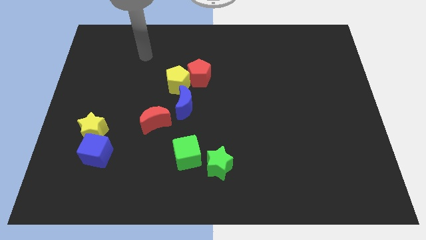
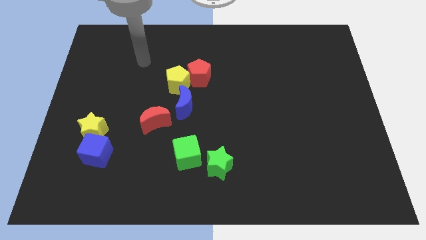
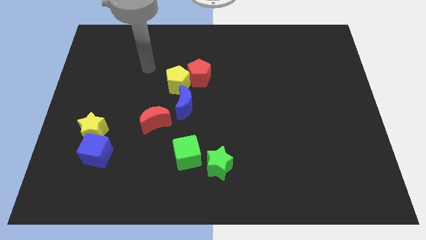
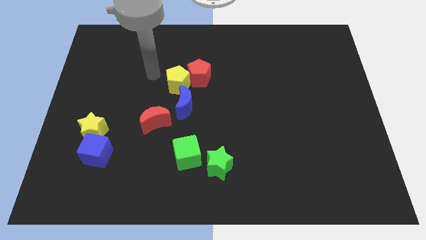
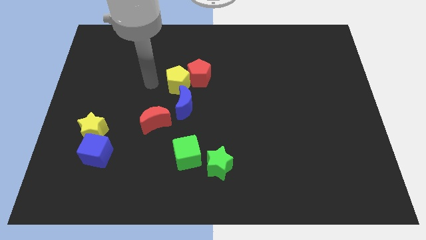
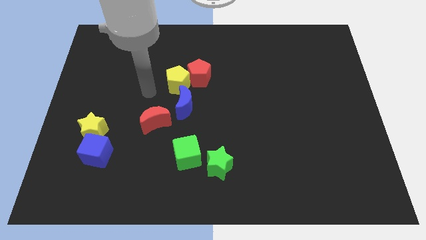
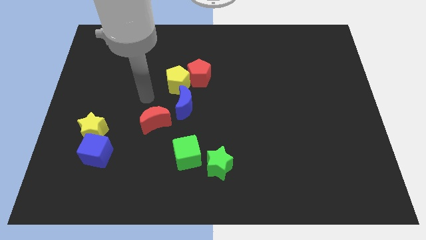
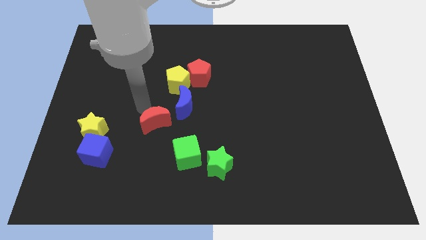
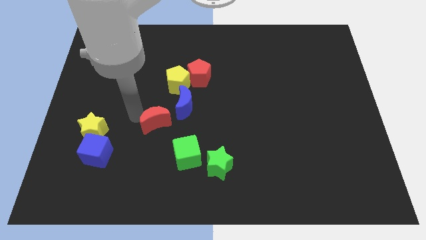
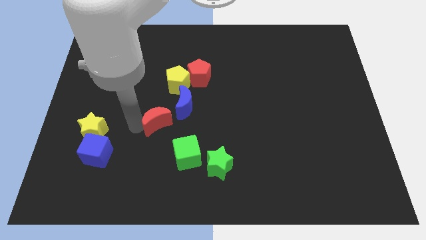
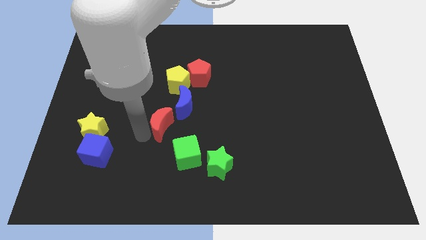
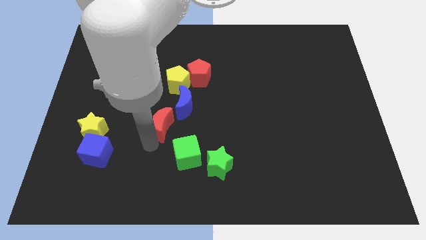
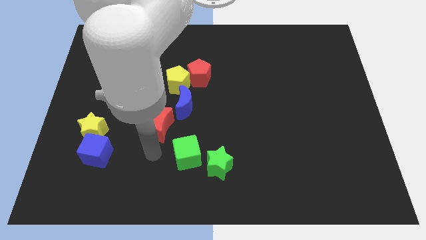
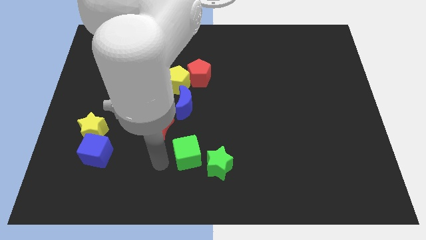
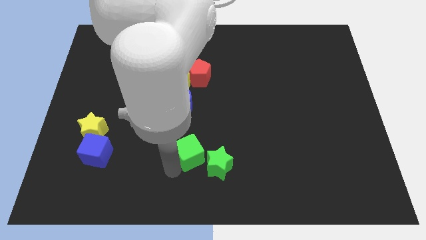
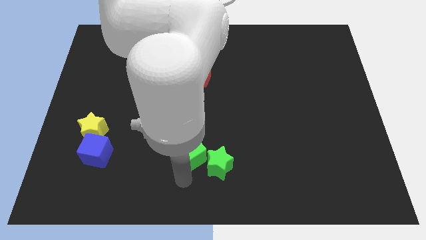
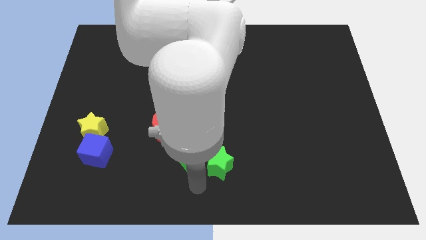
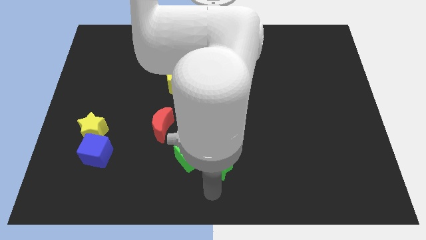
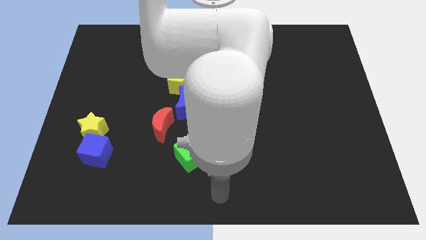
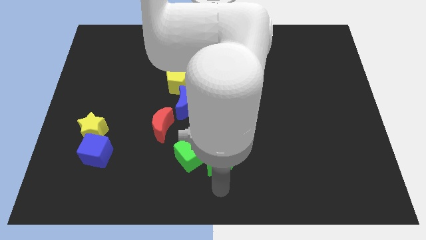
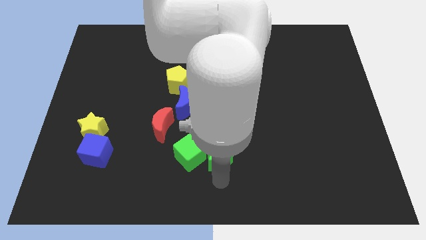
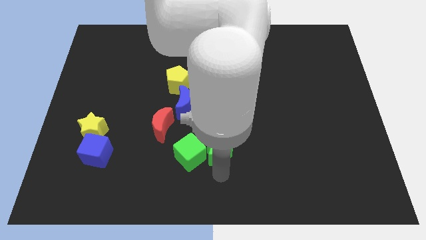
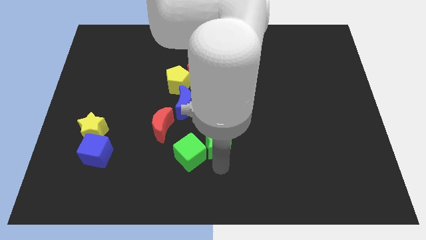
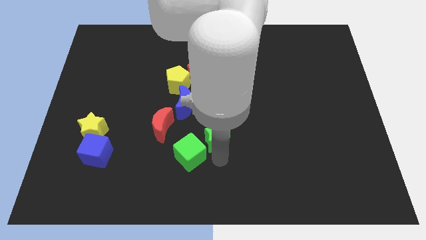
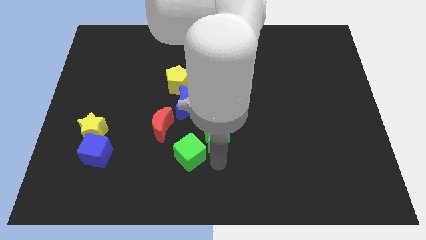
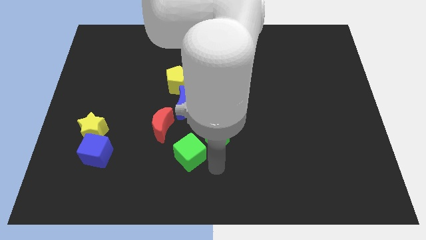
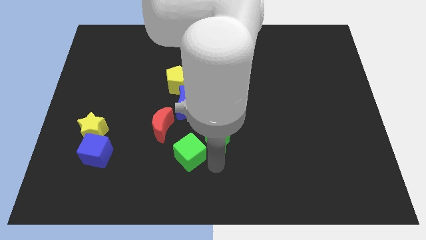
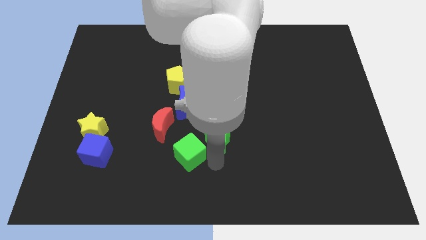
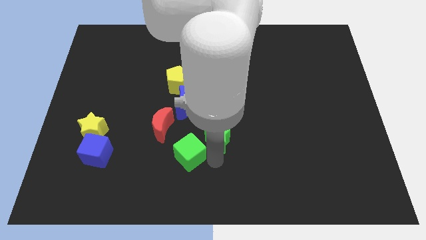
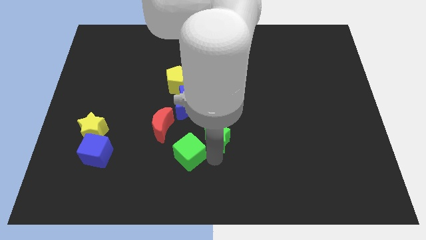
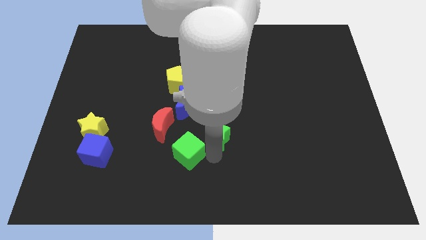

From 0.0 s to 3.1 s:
slightly push the green star up

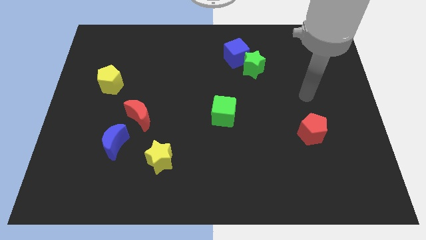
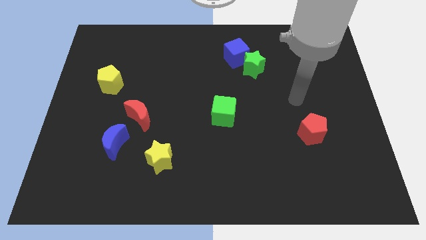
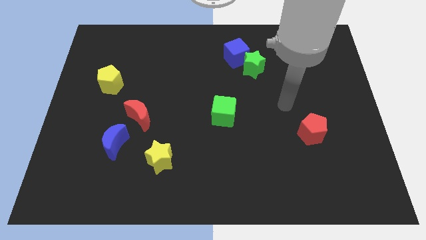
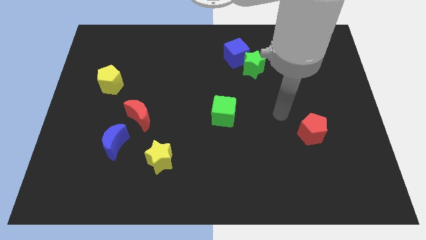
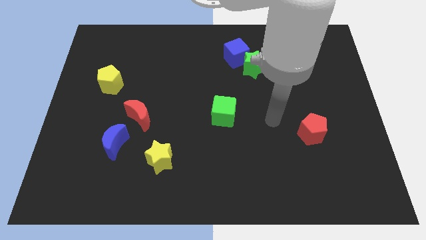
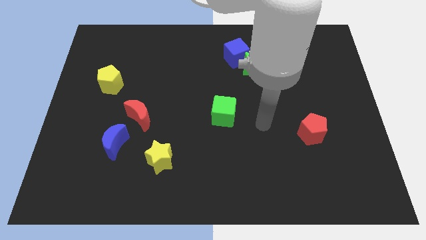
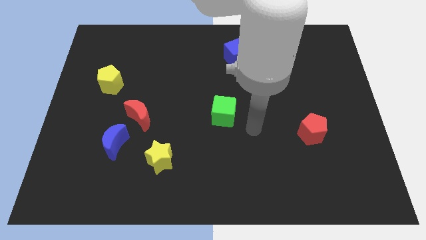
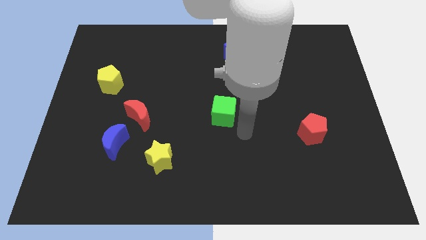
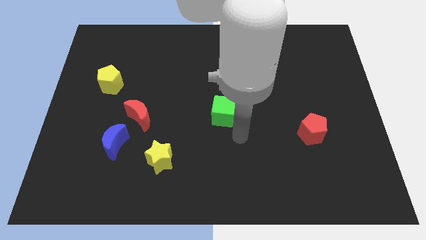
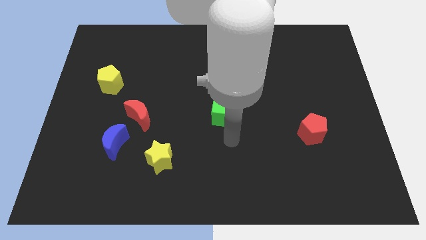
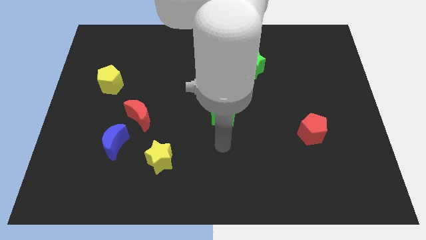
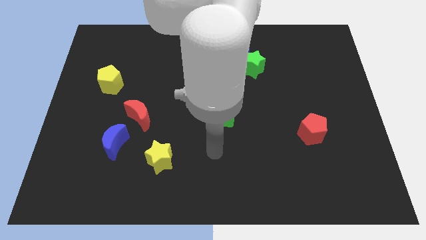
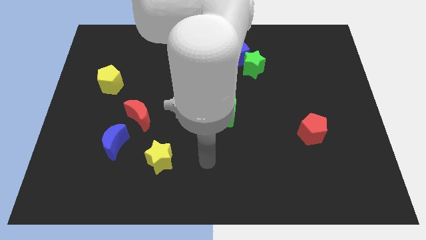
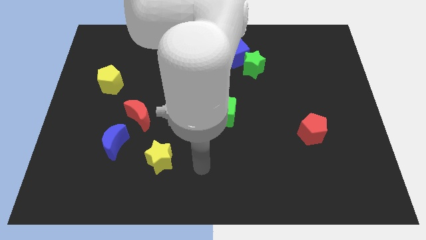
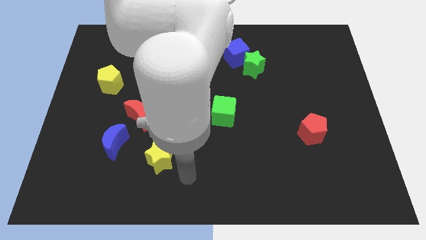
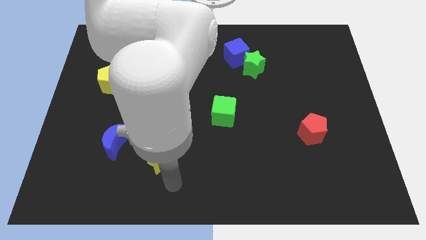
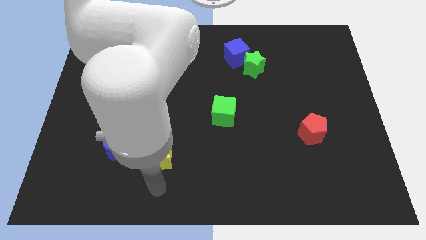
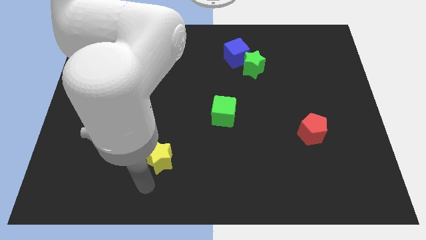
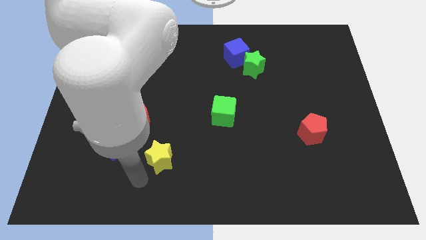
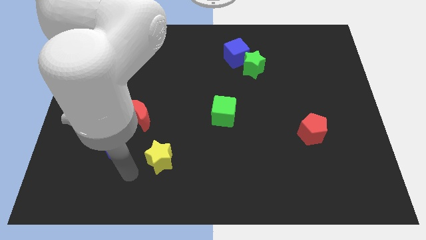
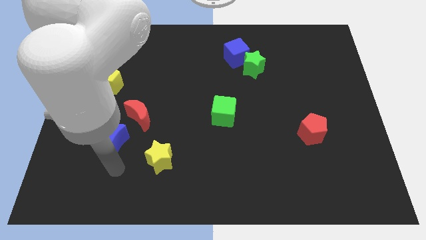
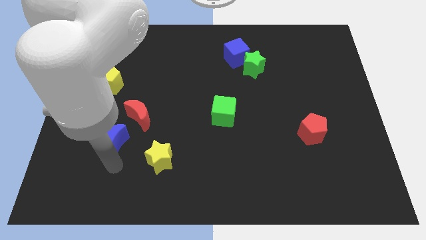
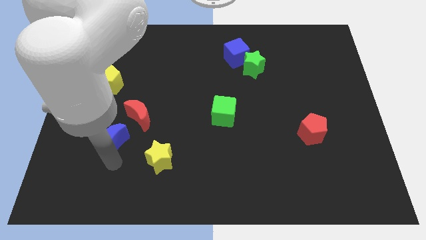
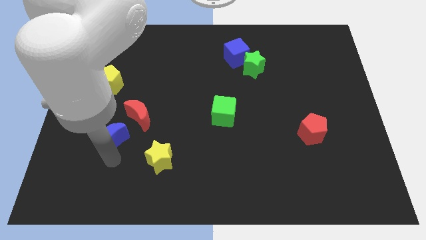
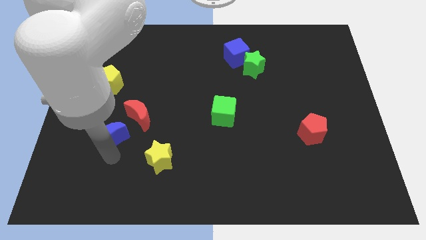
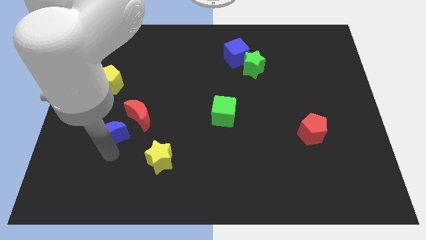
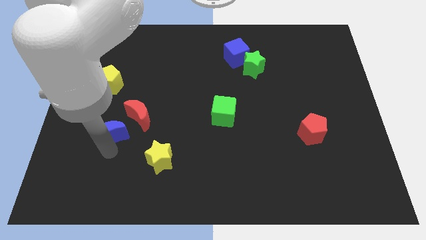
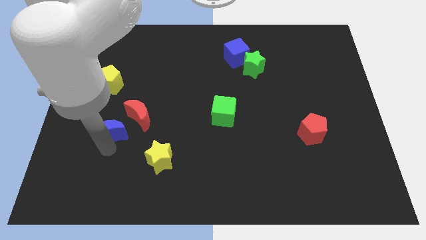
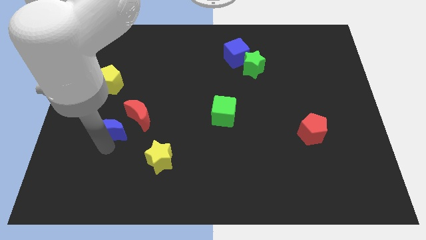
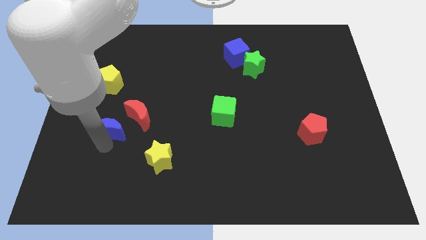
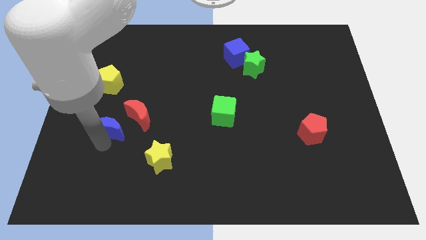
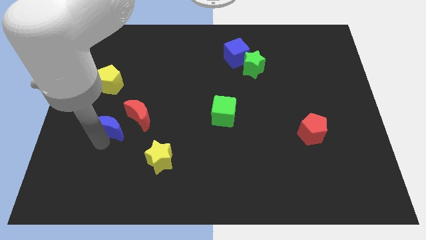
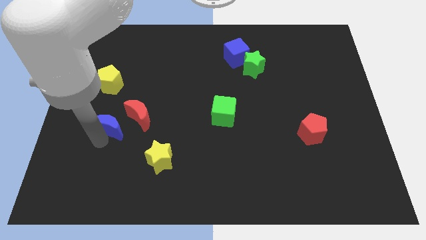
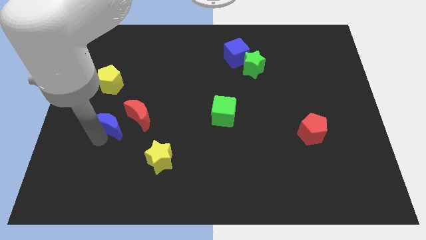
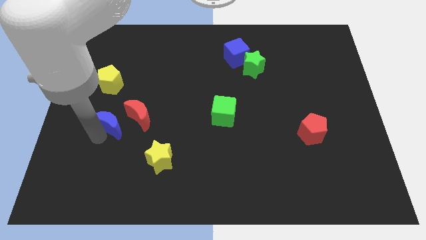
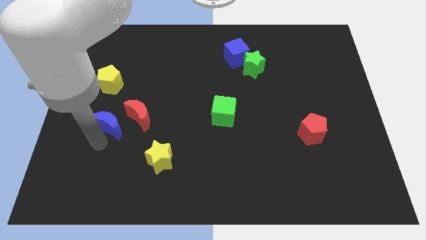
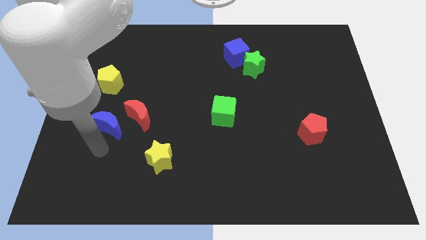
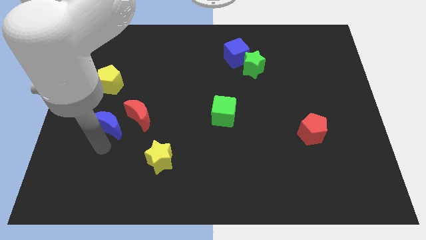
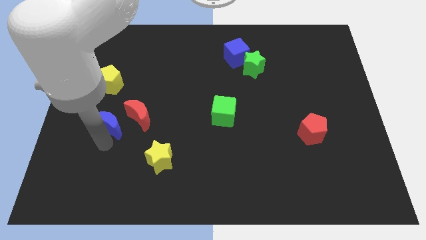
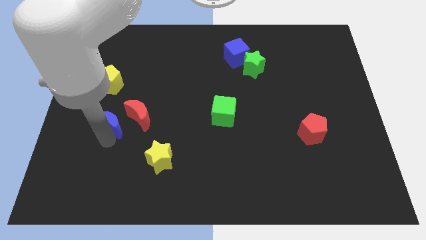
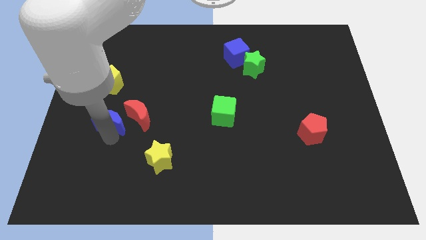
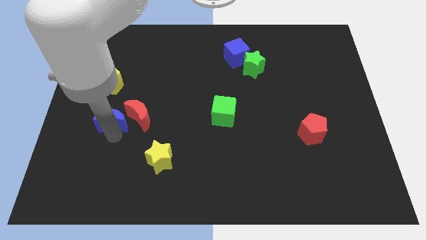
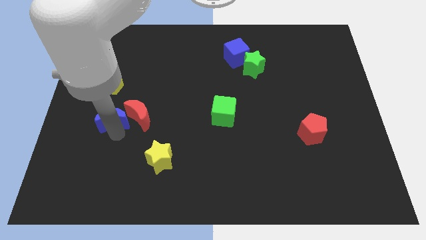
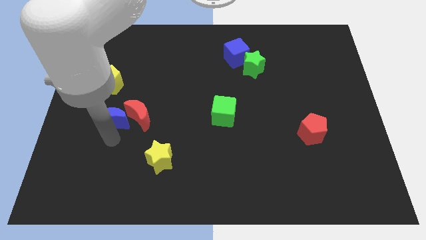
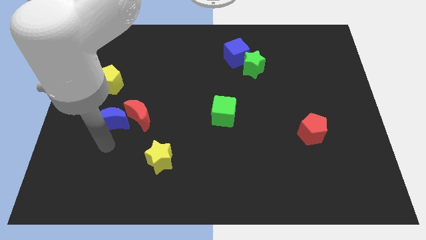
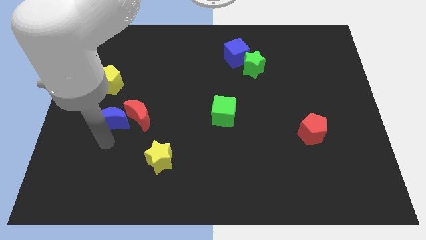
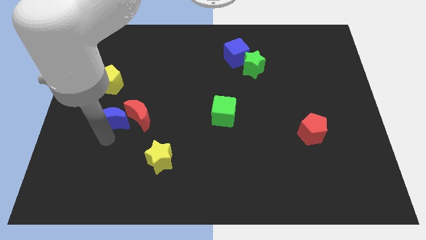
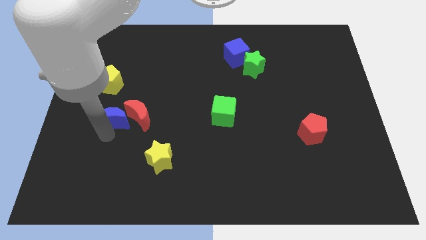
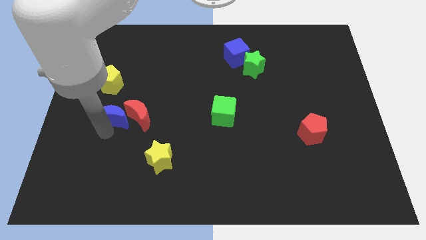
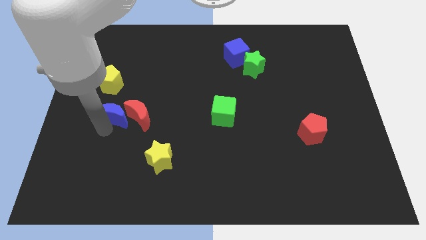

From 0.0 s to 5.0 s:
slightly slide the blue moon upwards
